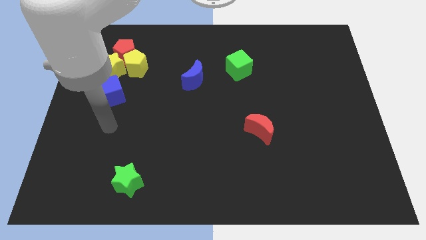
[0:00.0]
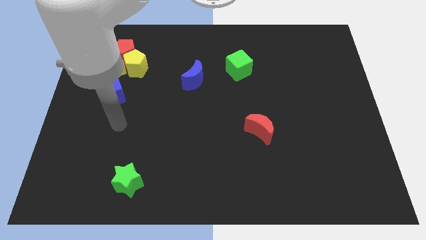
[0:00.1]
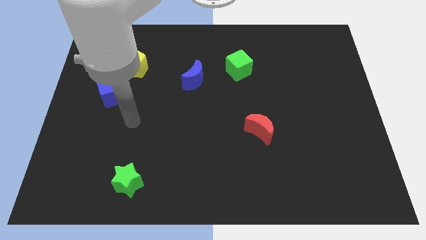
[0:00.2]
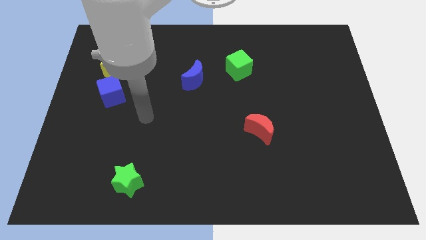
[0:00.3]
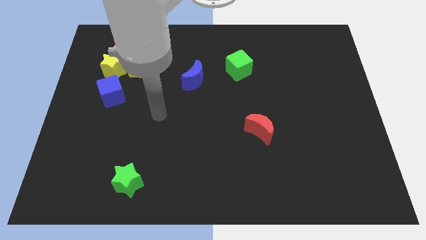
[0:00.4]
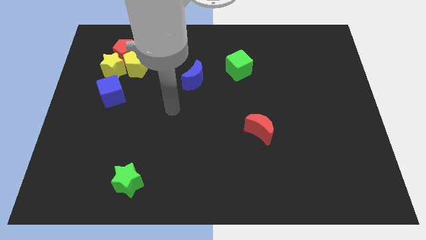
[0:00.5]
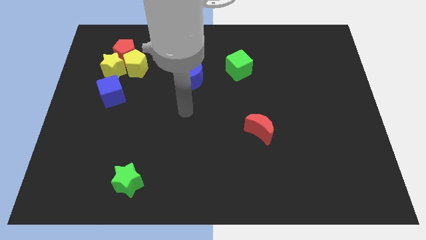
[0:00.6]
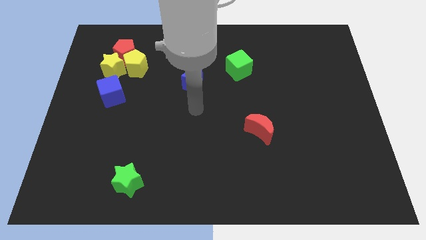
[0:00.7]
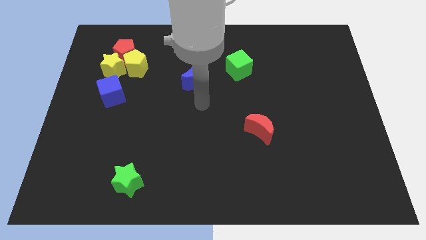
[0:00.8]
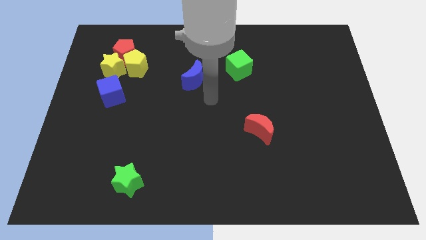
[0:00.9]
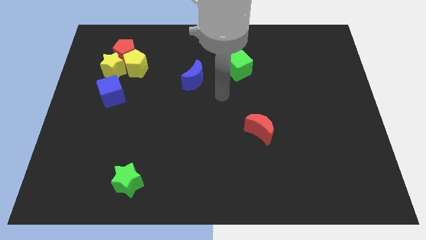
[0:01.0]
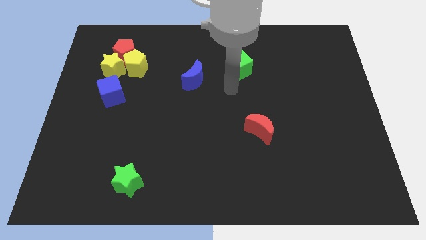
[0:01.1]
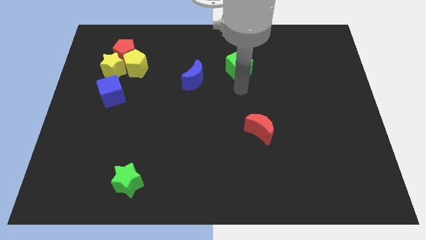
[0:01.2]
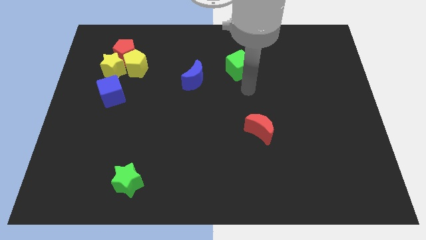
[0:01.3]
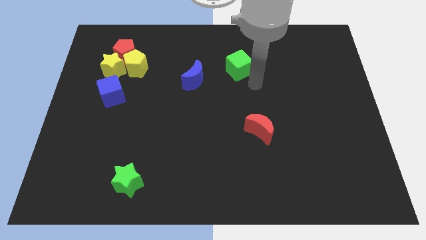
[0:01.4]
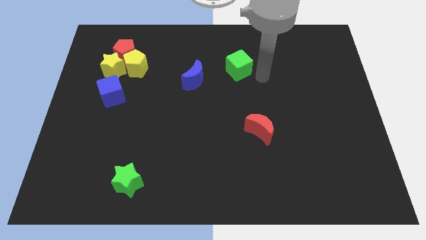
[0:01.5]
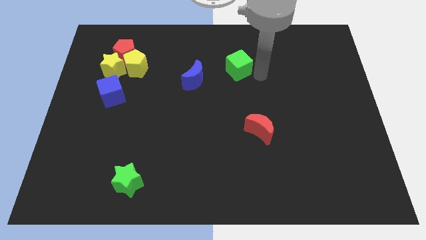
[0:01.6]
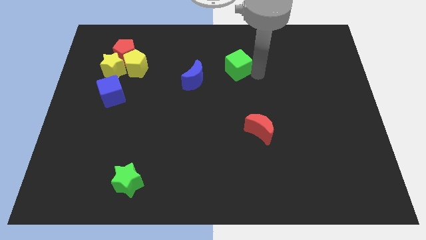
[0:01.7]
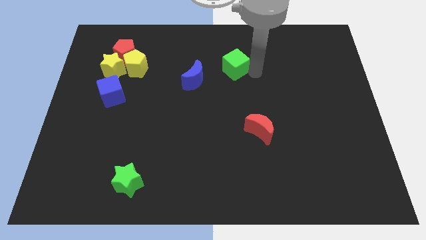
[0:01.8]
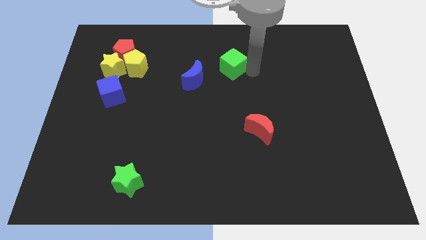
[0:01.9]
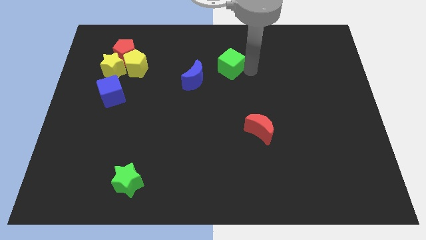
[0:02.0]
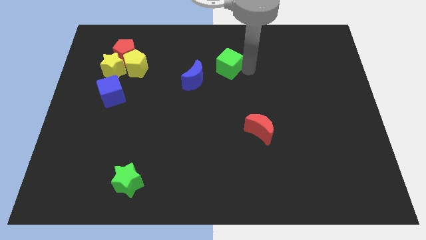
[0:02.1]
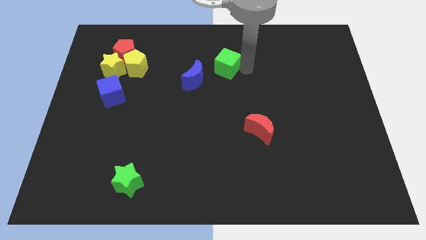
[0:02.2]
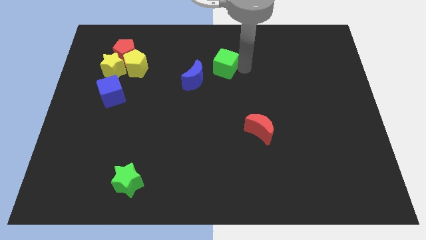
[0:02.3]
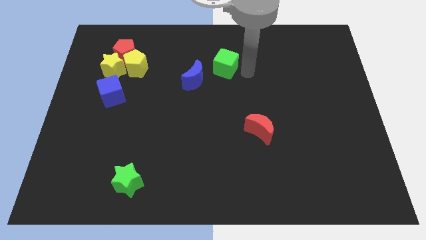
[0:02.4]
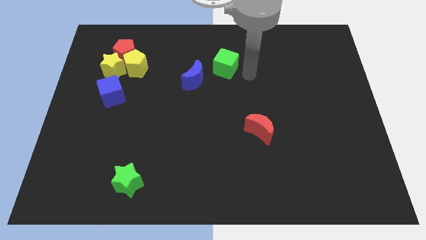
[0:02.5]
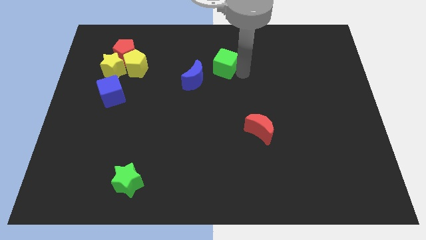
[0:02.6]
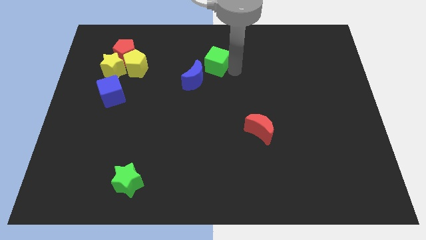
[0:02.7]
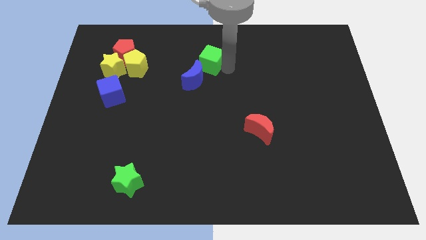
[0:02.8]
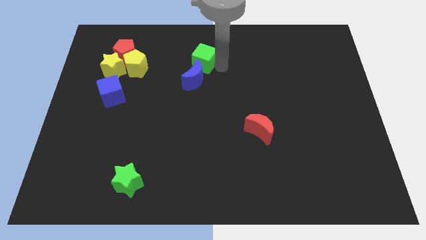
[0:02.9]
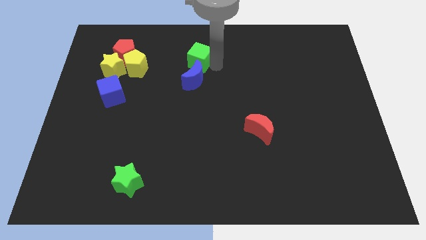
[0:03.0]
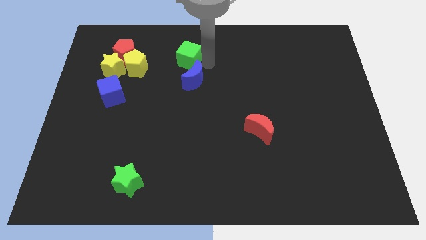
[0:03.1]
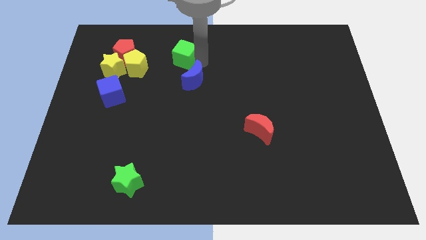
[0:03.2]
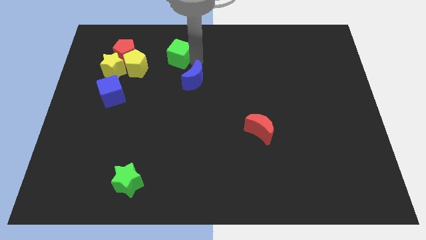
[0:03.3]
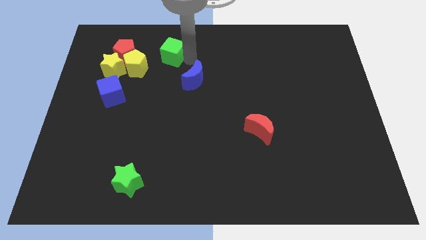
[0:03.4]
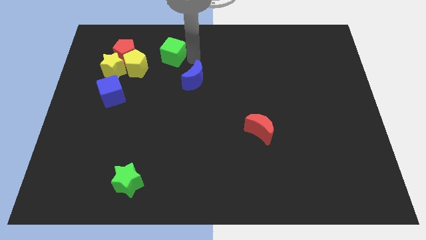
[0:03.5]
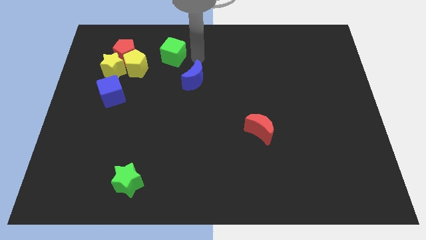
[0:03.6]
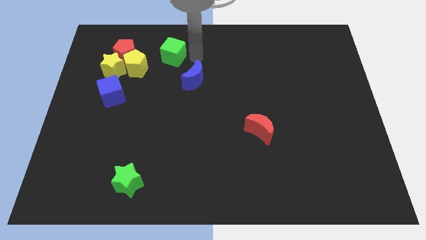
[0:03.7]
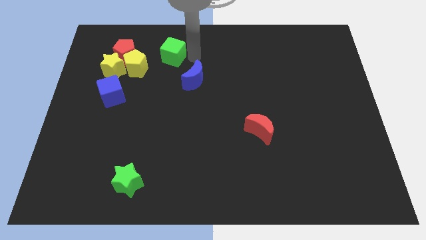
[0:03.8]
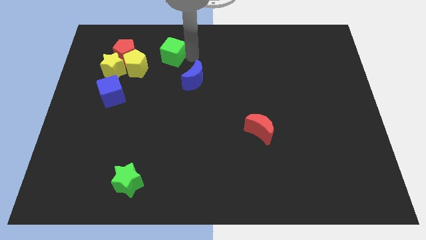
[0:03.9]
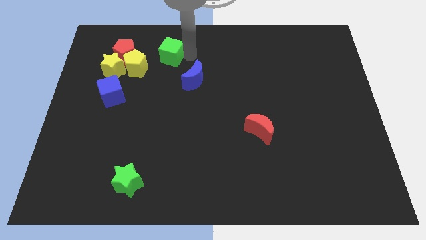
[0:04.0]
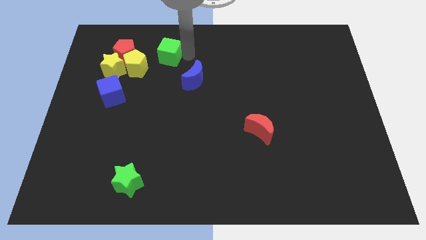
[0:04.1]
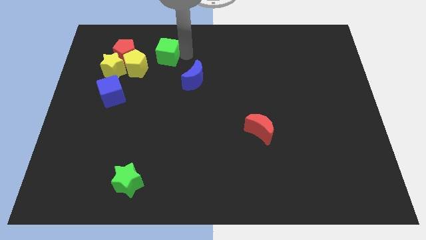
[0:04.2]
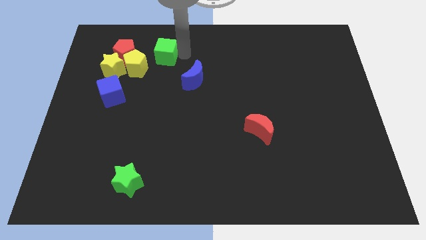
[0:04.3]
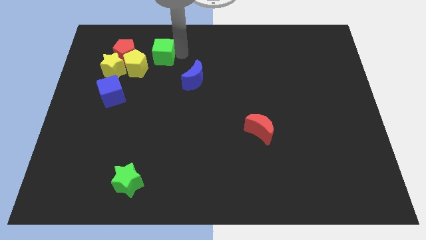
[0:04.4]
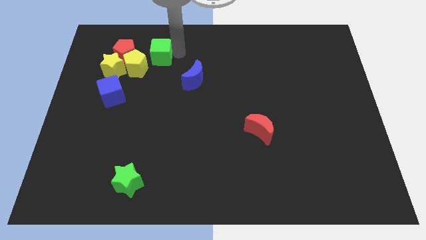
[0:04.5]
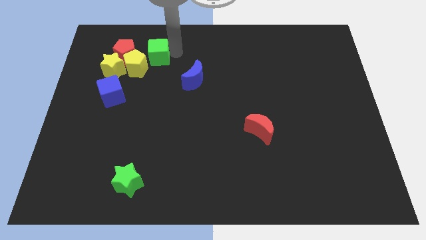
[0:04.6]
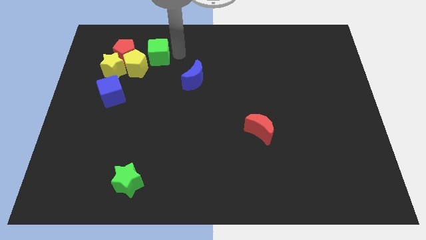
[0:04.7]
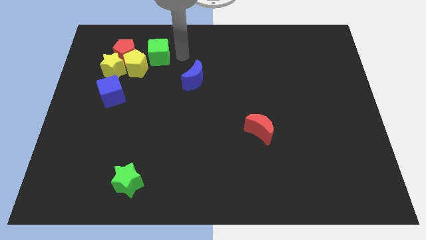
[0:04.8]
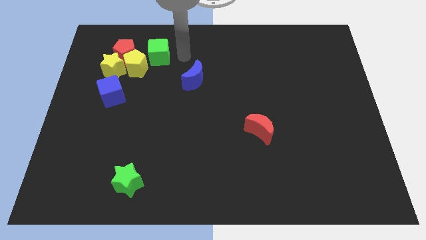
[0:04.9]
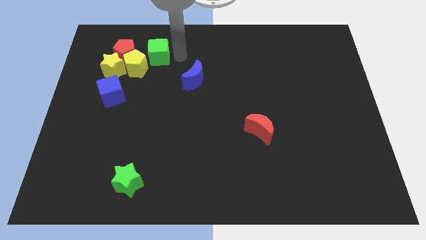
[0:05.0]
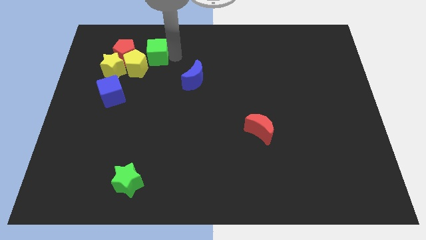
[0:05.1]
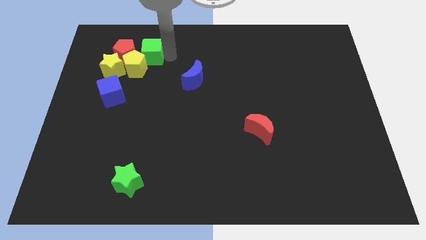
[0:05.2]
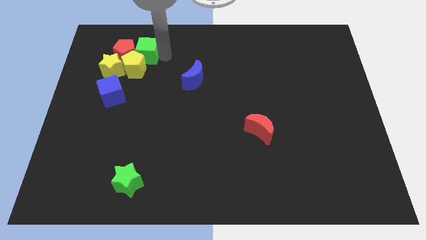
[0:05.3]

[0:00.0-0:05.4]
push the green cube close to the red pentagon

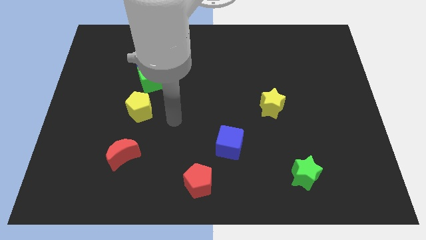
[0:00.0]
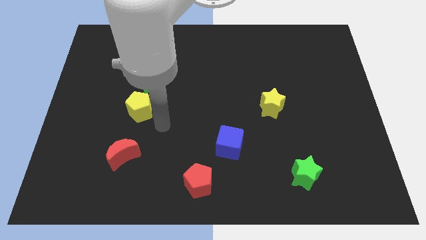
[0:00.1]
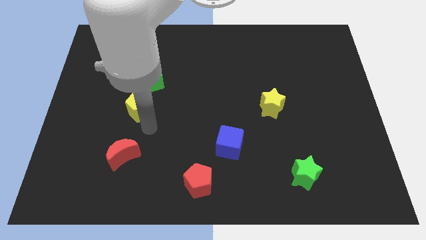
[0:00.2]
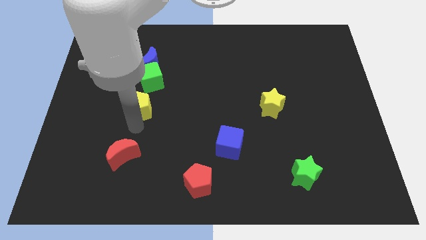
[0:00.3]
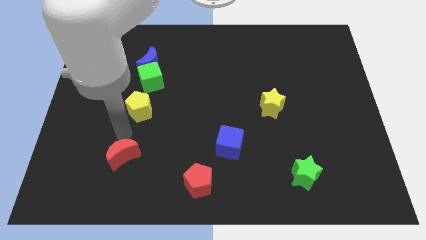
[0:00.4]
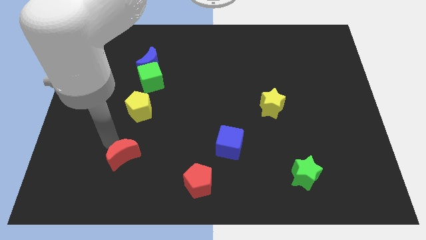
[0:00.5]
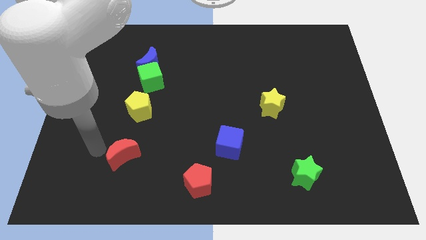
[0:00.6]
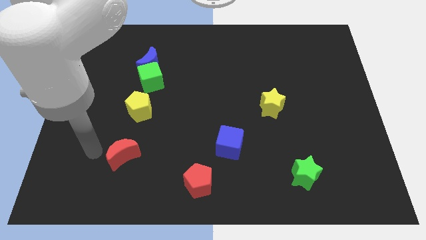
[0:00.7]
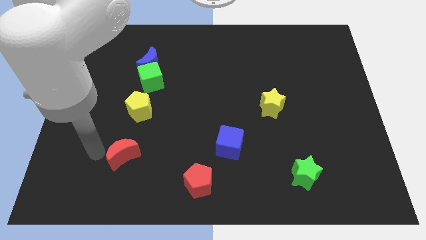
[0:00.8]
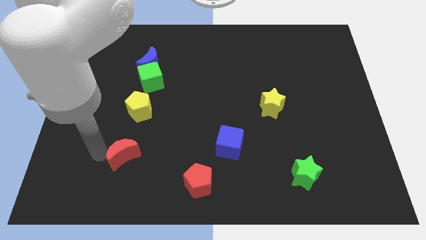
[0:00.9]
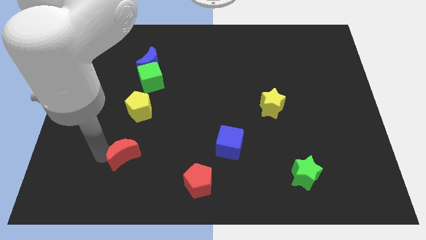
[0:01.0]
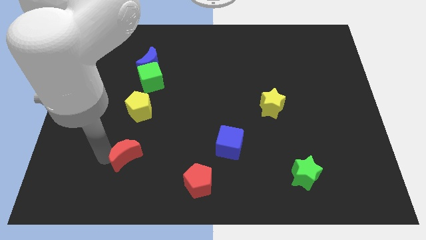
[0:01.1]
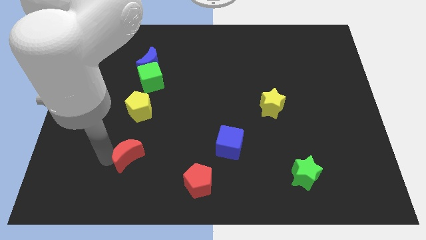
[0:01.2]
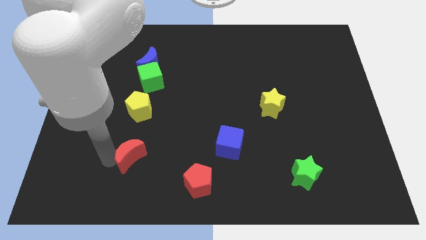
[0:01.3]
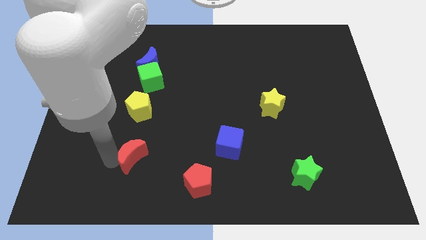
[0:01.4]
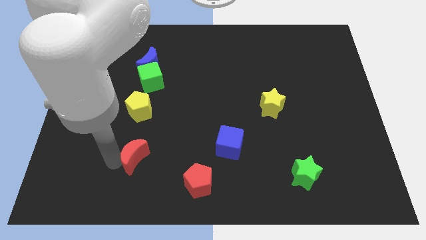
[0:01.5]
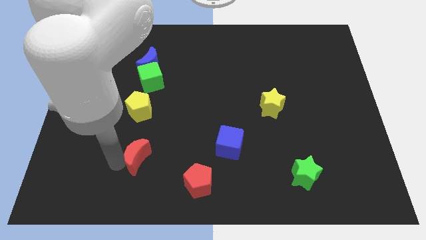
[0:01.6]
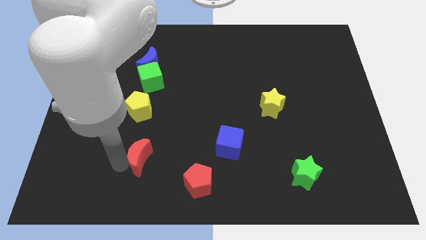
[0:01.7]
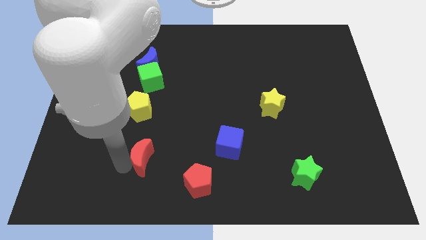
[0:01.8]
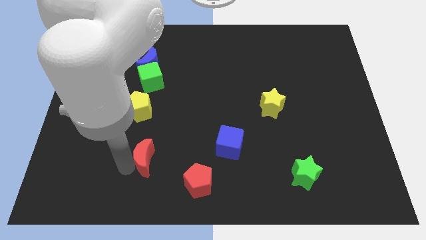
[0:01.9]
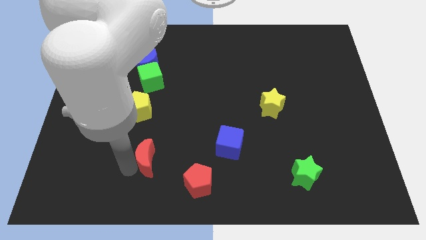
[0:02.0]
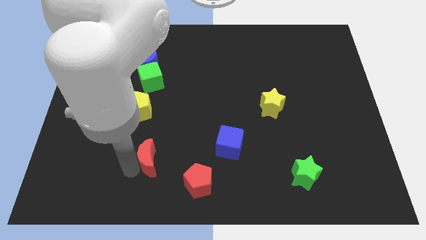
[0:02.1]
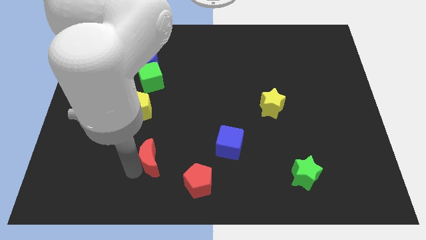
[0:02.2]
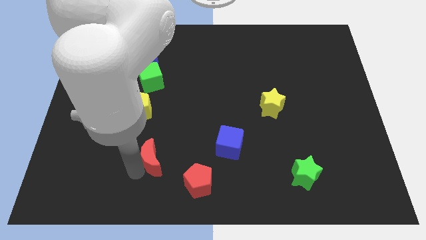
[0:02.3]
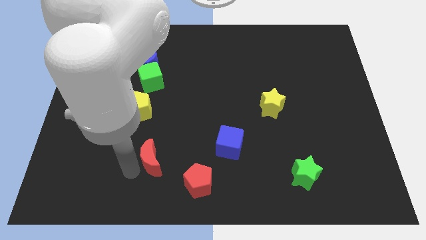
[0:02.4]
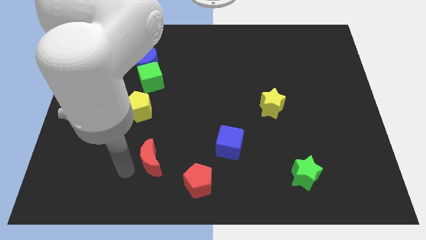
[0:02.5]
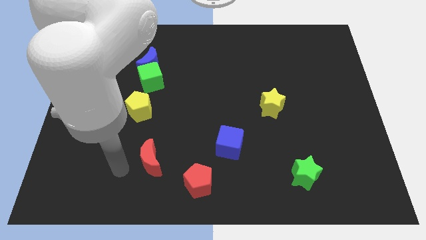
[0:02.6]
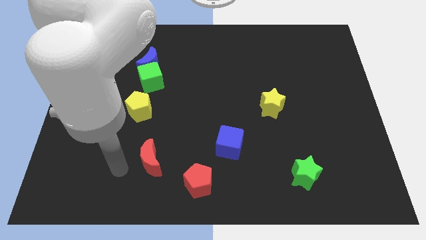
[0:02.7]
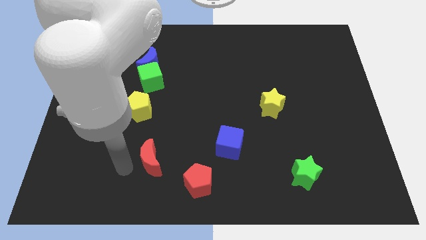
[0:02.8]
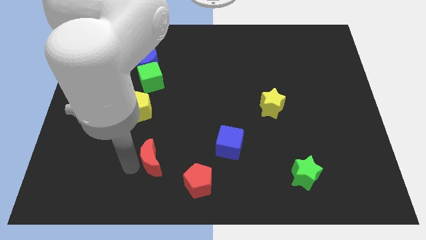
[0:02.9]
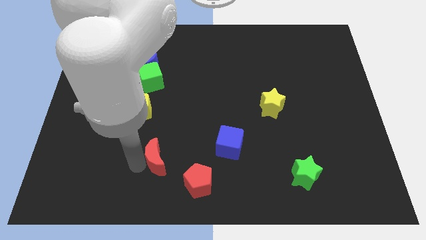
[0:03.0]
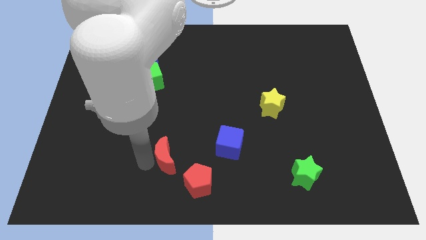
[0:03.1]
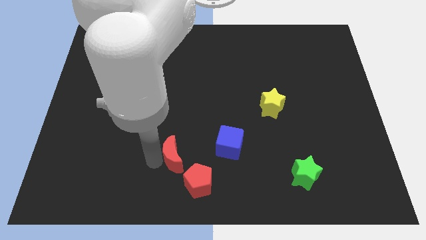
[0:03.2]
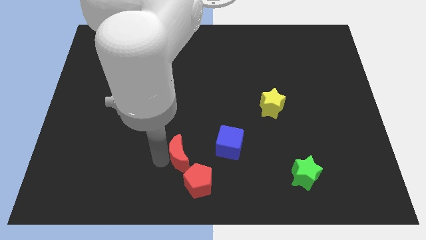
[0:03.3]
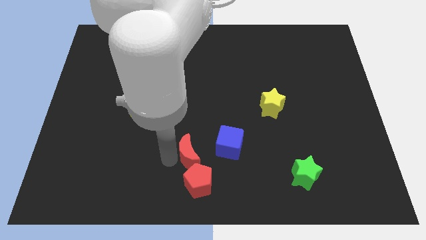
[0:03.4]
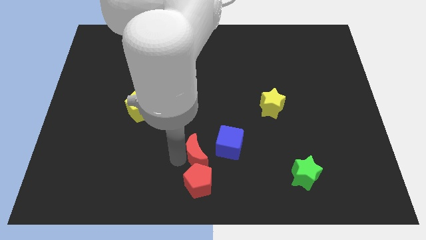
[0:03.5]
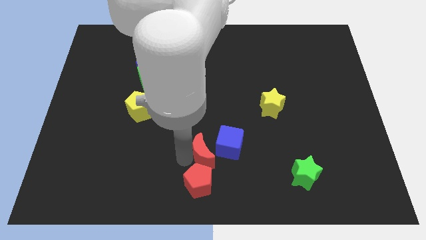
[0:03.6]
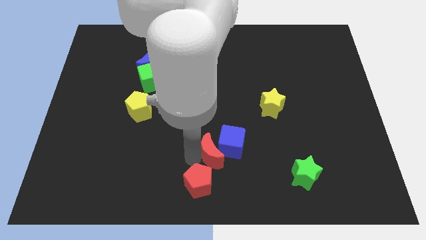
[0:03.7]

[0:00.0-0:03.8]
slide the red moon towards the blue cube
